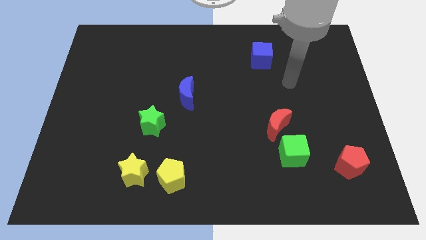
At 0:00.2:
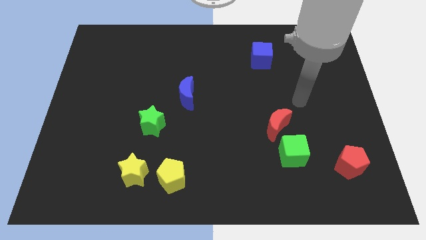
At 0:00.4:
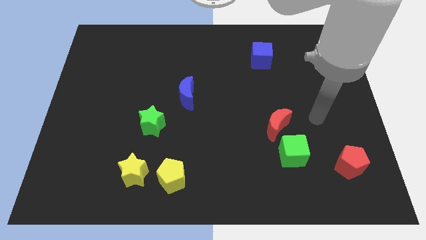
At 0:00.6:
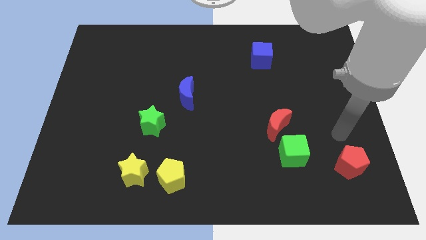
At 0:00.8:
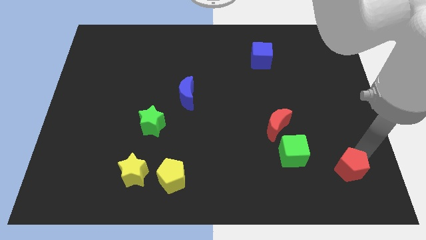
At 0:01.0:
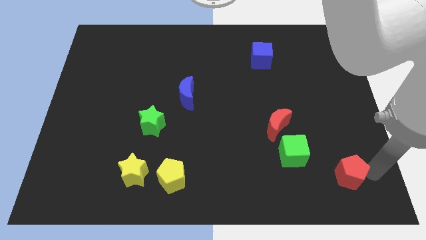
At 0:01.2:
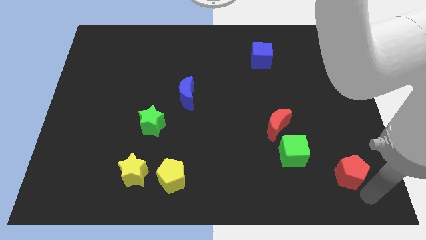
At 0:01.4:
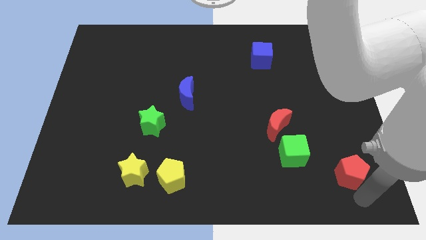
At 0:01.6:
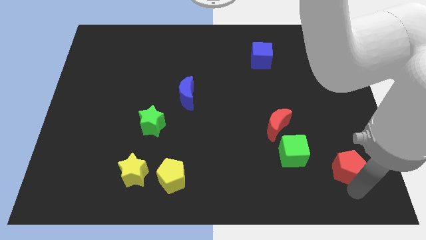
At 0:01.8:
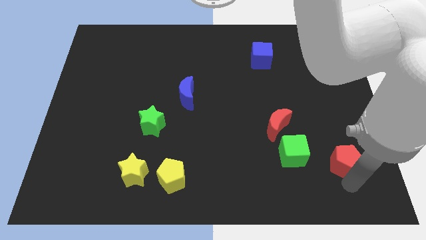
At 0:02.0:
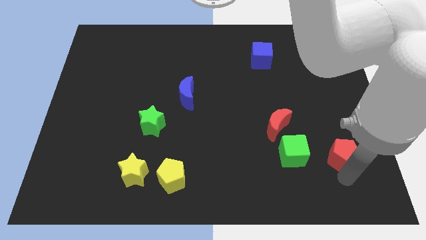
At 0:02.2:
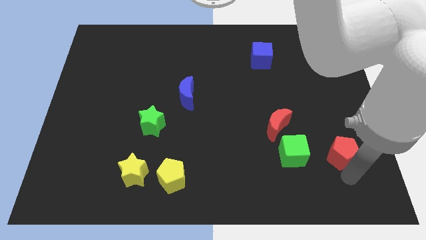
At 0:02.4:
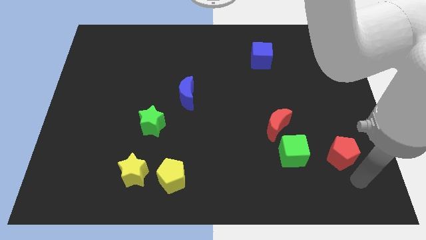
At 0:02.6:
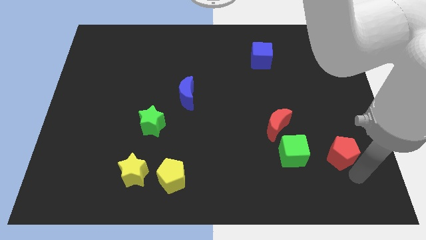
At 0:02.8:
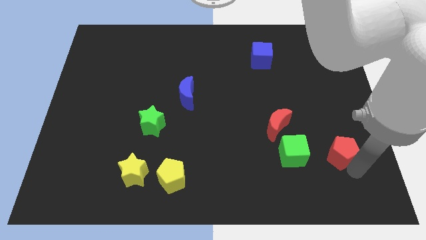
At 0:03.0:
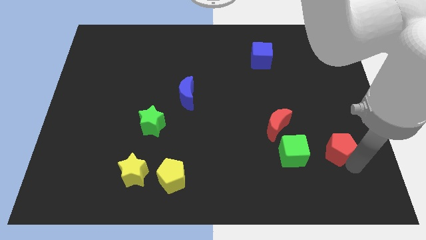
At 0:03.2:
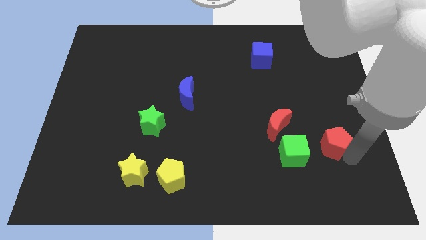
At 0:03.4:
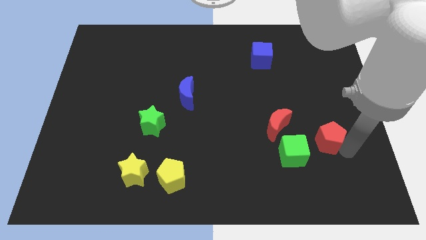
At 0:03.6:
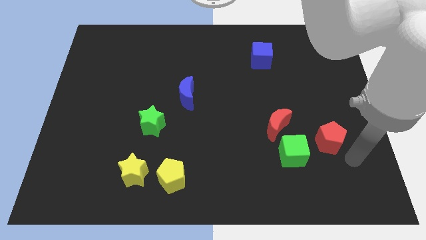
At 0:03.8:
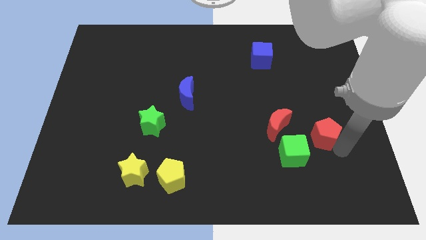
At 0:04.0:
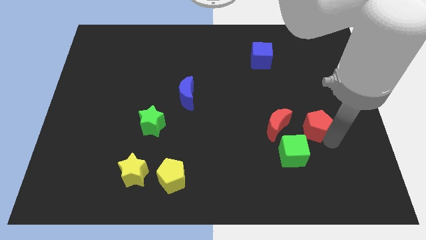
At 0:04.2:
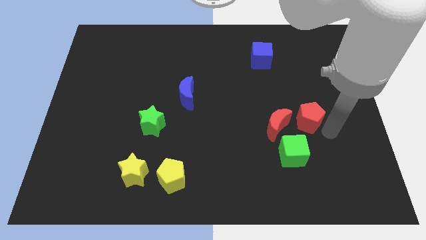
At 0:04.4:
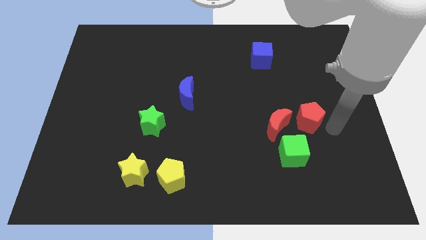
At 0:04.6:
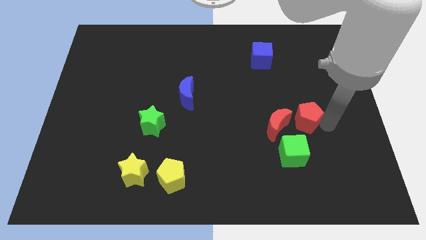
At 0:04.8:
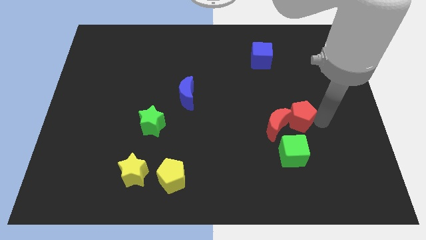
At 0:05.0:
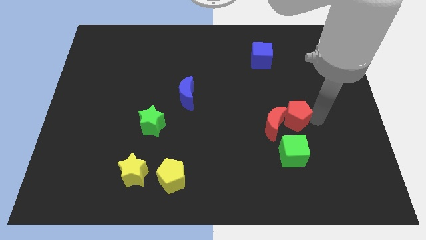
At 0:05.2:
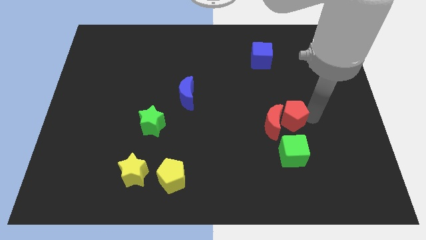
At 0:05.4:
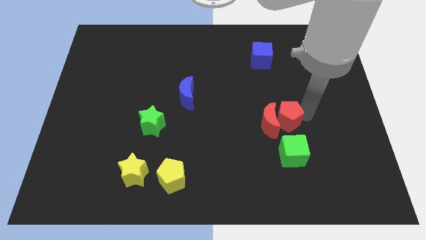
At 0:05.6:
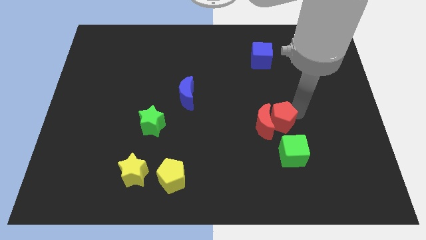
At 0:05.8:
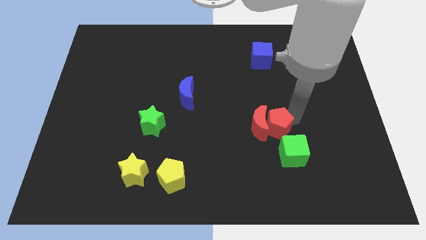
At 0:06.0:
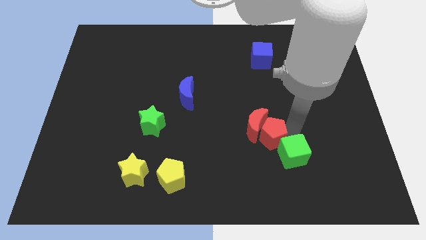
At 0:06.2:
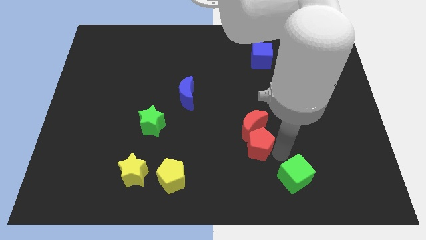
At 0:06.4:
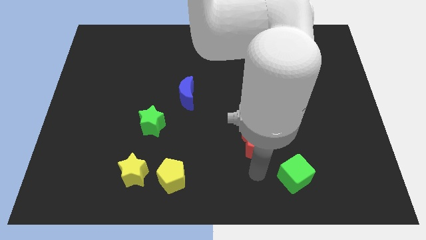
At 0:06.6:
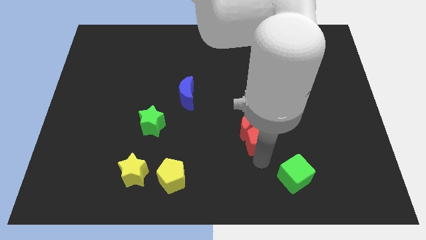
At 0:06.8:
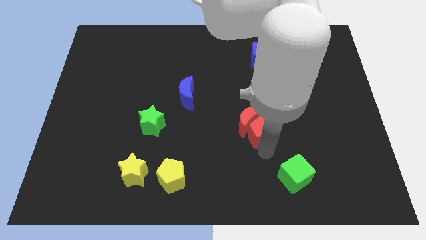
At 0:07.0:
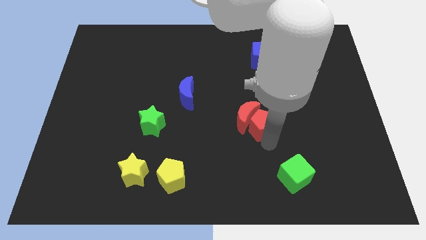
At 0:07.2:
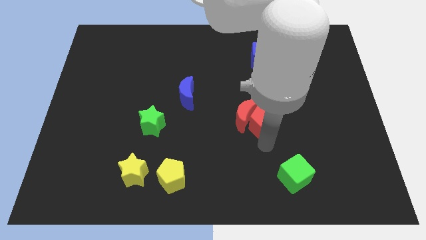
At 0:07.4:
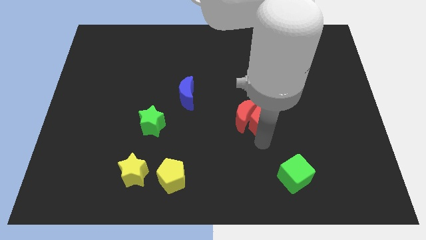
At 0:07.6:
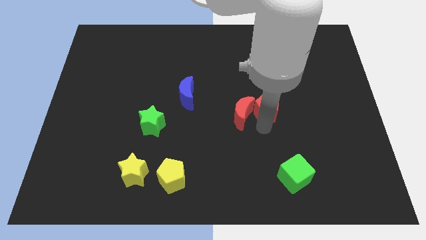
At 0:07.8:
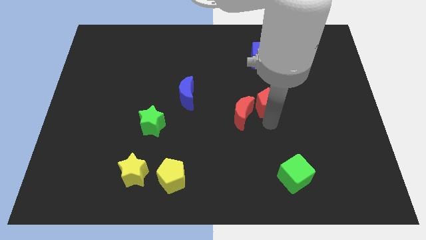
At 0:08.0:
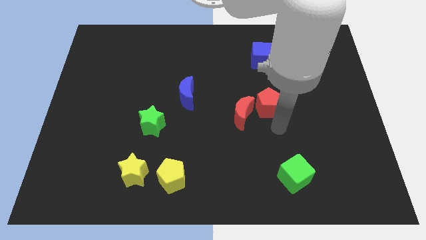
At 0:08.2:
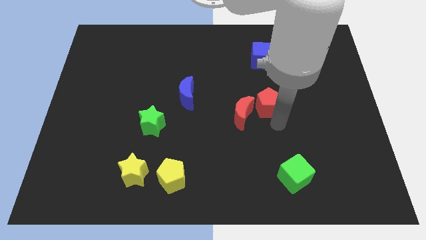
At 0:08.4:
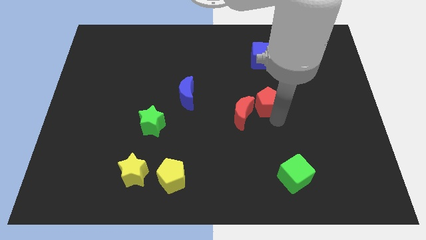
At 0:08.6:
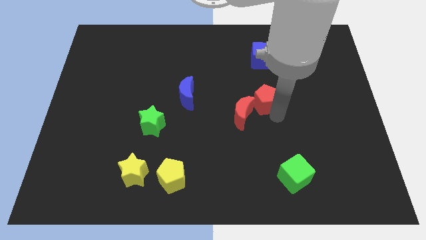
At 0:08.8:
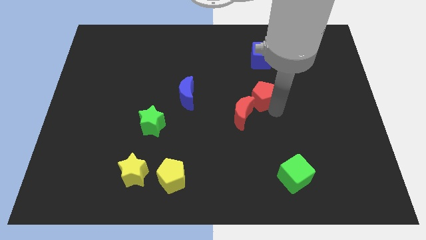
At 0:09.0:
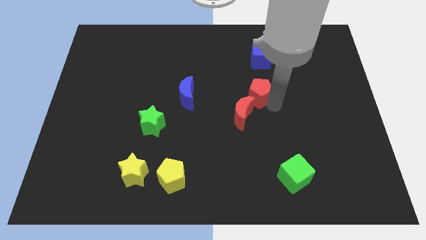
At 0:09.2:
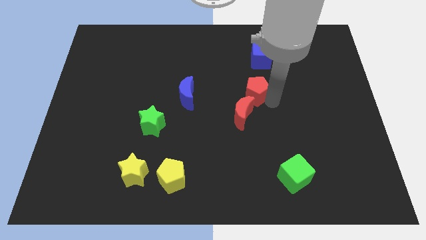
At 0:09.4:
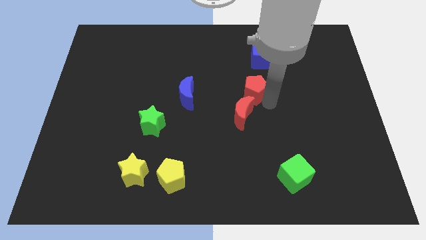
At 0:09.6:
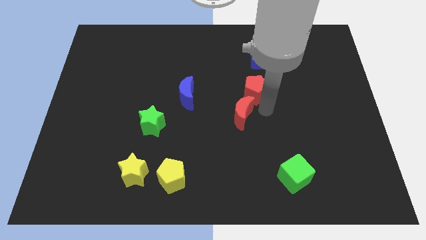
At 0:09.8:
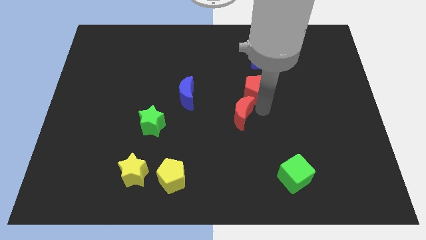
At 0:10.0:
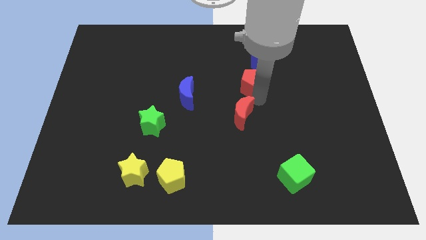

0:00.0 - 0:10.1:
move the red pentagon diagonally down and to the left of the blue cube

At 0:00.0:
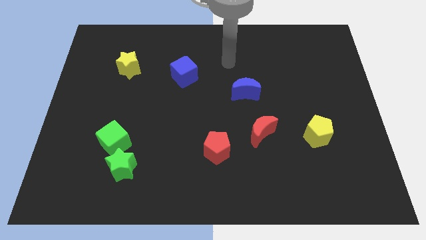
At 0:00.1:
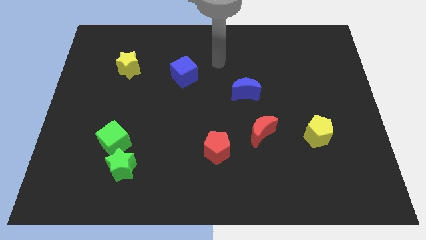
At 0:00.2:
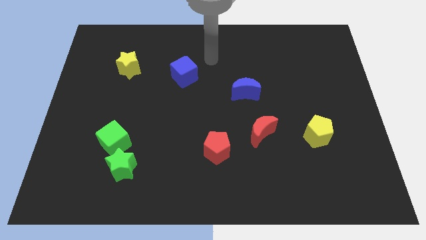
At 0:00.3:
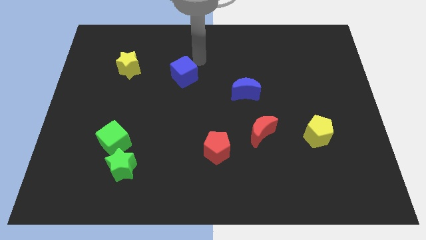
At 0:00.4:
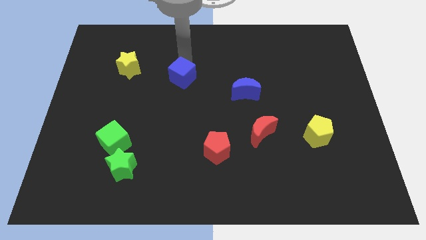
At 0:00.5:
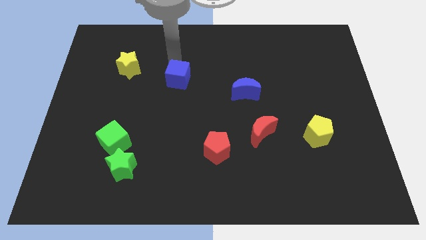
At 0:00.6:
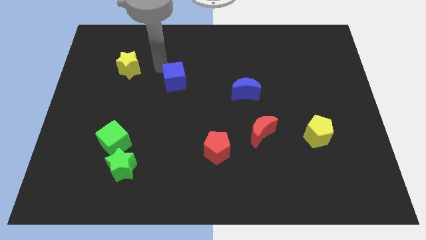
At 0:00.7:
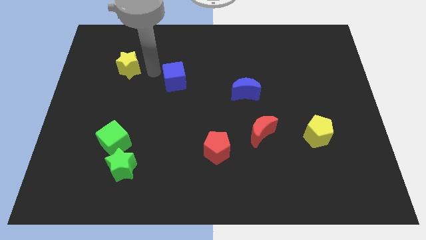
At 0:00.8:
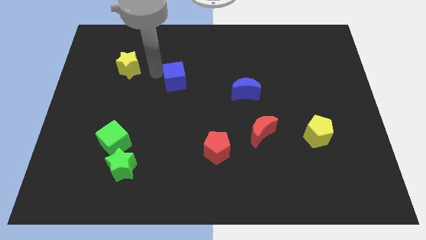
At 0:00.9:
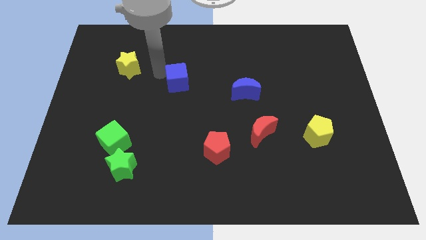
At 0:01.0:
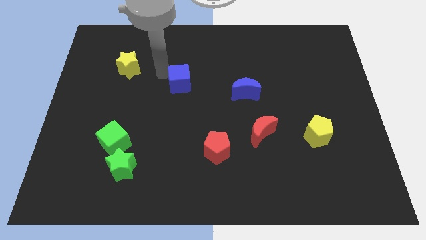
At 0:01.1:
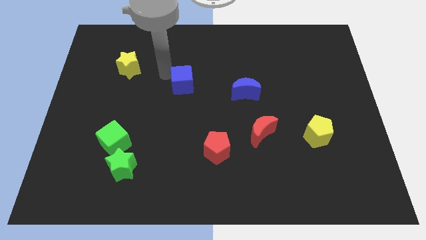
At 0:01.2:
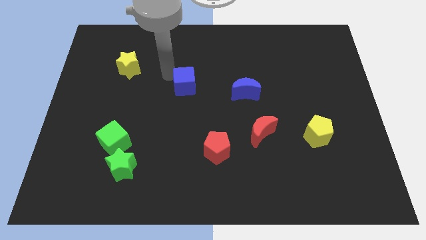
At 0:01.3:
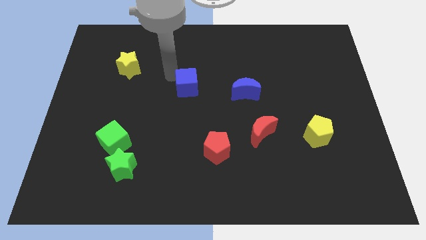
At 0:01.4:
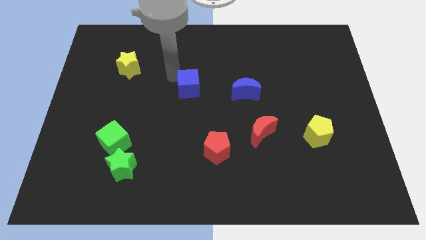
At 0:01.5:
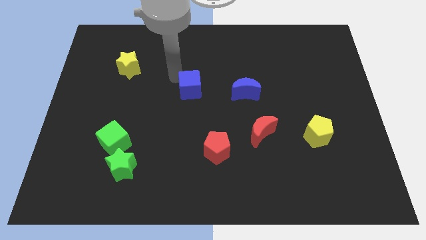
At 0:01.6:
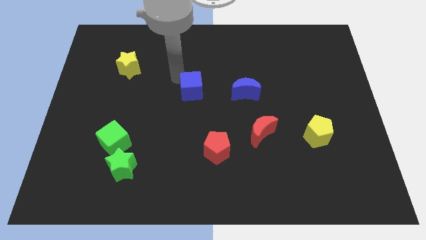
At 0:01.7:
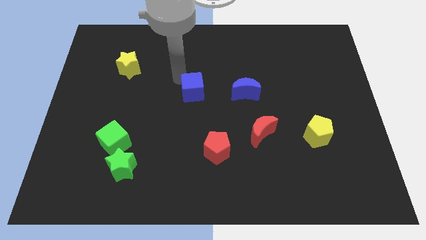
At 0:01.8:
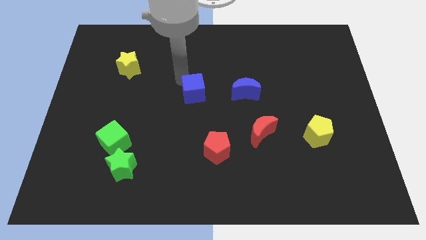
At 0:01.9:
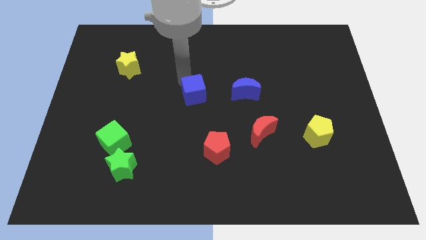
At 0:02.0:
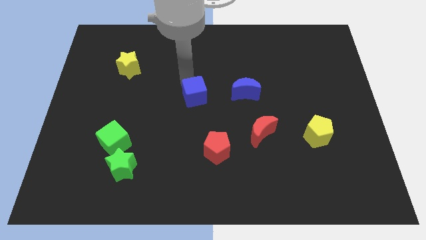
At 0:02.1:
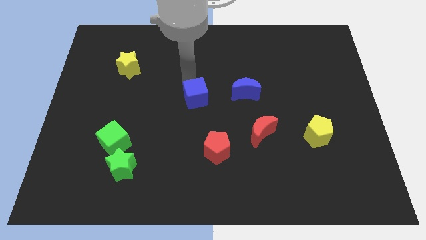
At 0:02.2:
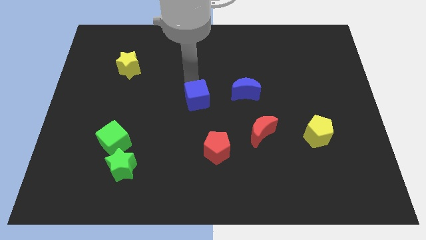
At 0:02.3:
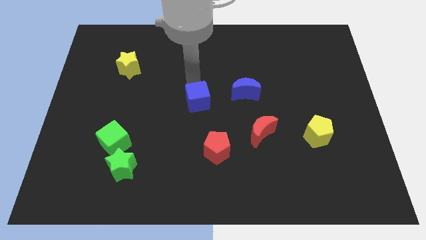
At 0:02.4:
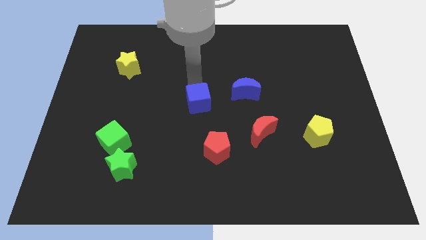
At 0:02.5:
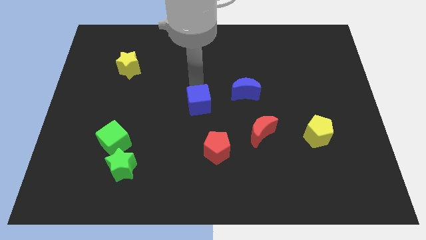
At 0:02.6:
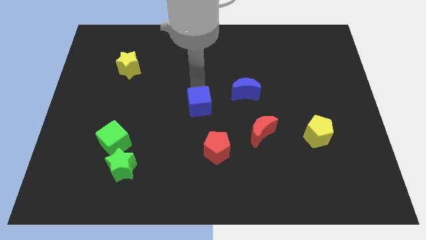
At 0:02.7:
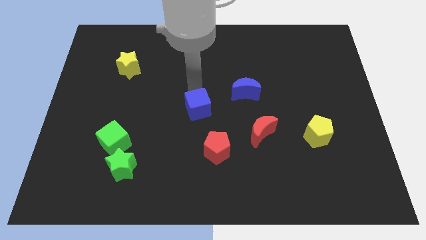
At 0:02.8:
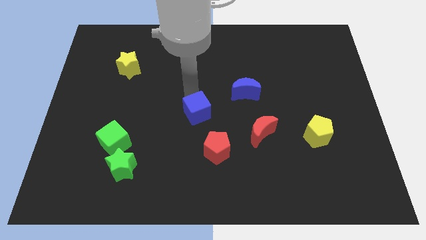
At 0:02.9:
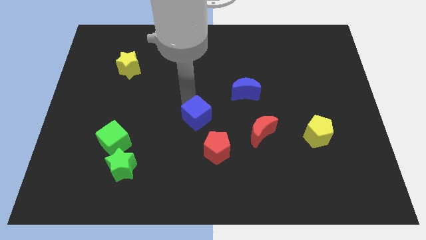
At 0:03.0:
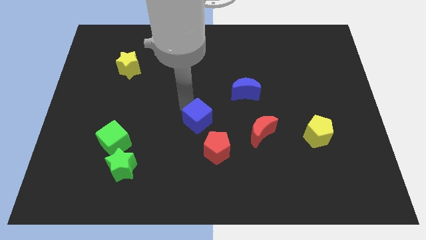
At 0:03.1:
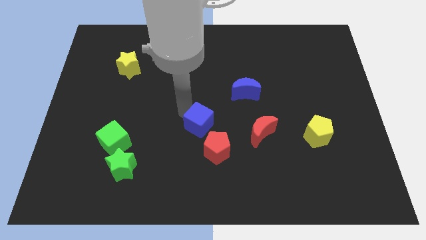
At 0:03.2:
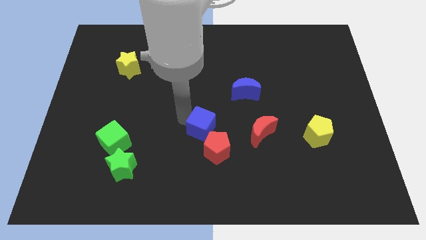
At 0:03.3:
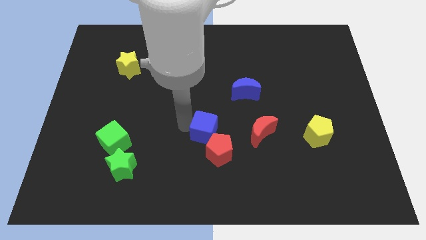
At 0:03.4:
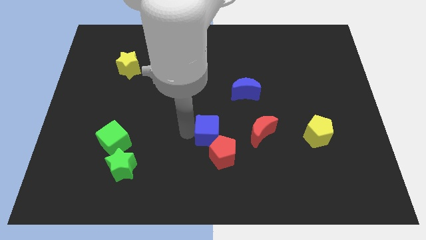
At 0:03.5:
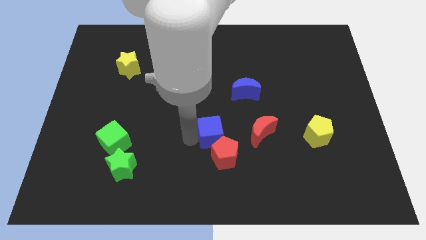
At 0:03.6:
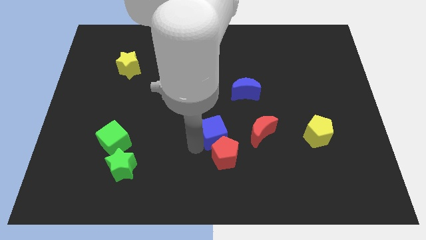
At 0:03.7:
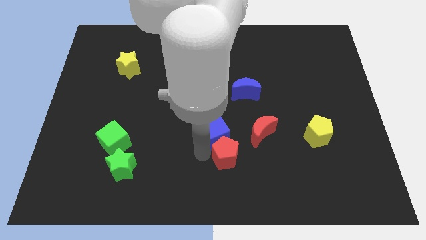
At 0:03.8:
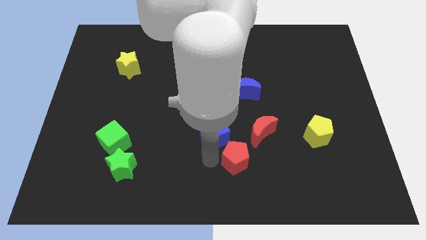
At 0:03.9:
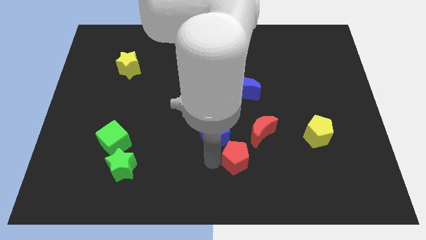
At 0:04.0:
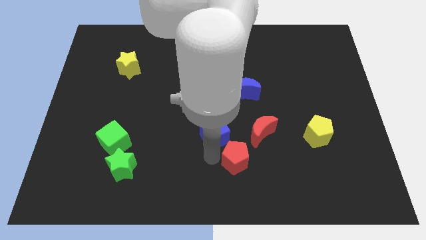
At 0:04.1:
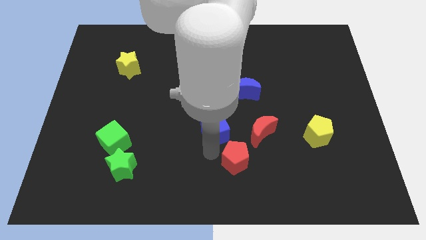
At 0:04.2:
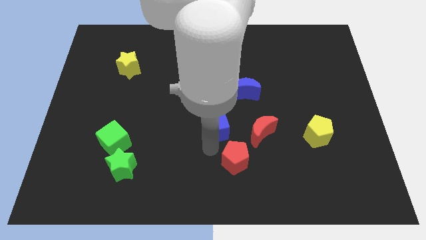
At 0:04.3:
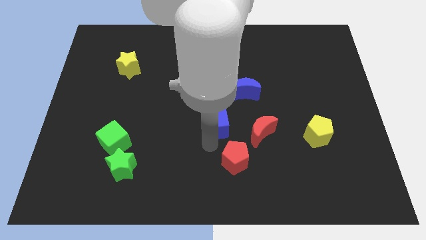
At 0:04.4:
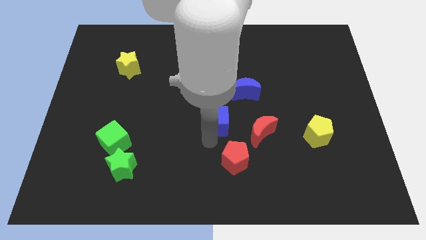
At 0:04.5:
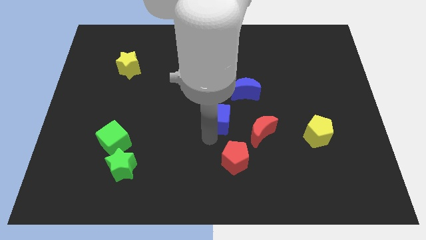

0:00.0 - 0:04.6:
move the blue cube diagonally up and to the left of the red moon
